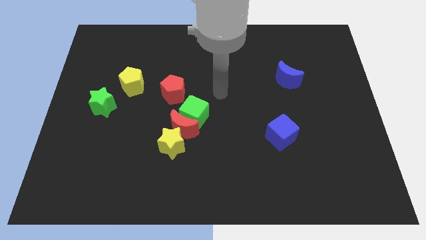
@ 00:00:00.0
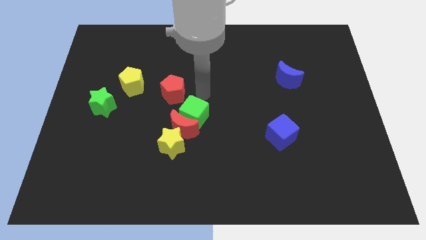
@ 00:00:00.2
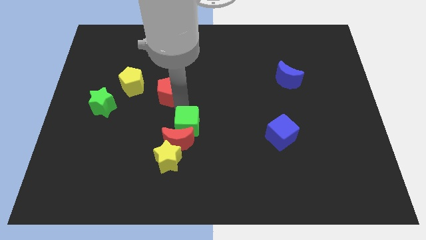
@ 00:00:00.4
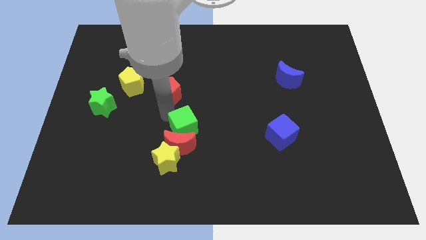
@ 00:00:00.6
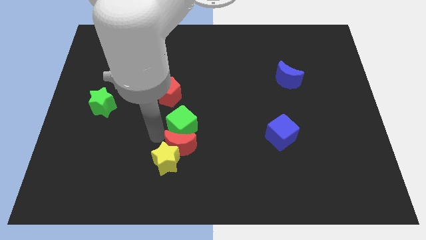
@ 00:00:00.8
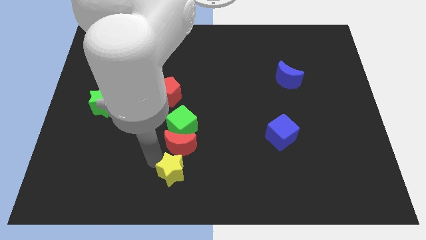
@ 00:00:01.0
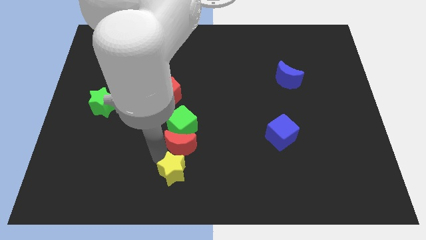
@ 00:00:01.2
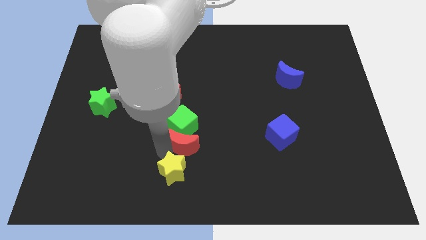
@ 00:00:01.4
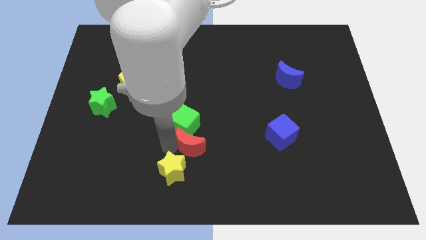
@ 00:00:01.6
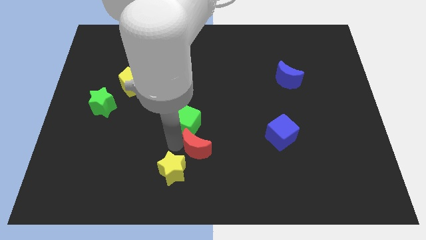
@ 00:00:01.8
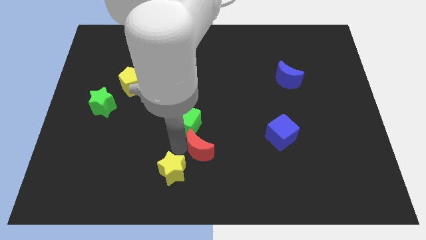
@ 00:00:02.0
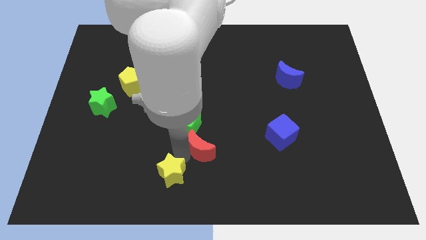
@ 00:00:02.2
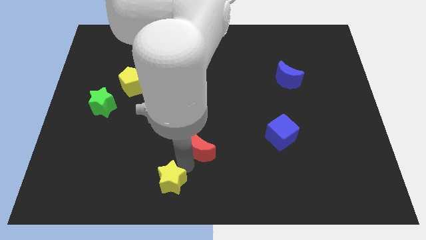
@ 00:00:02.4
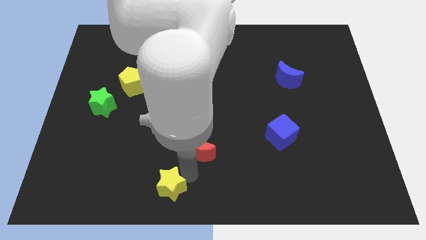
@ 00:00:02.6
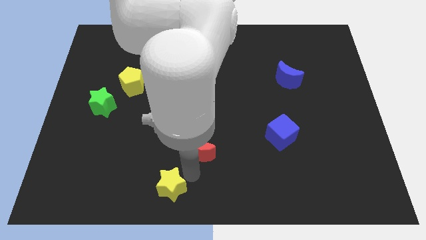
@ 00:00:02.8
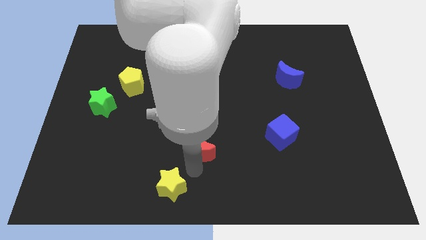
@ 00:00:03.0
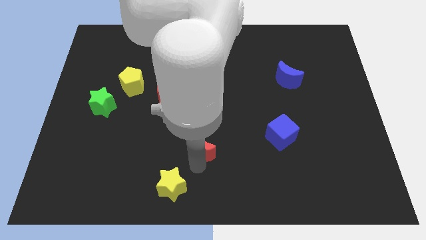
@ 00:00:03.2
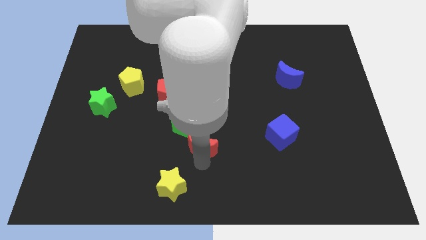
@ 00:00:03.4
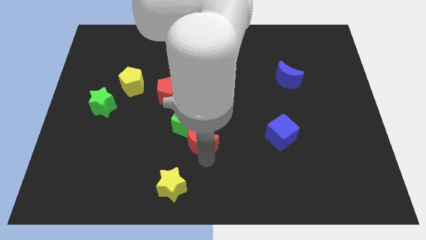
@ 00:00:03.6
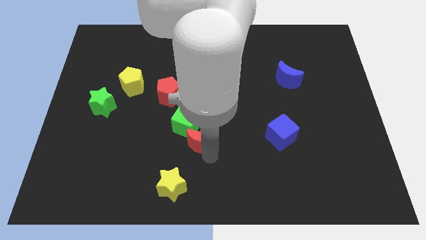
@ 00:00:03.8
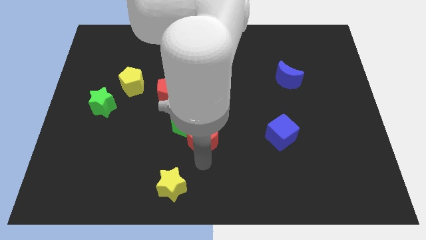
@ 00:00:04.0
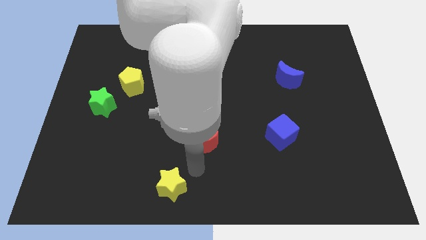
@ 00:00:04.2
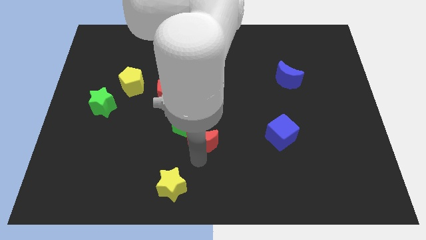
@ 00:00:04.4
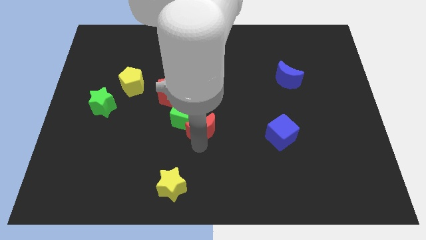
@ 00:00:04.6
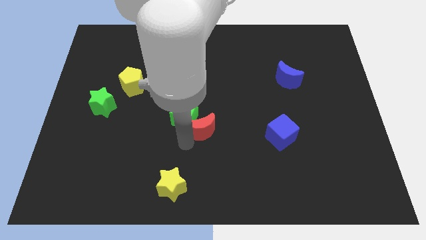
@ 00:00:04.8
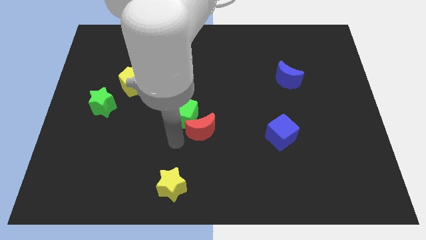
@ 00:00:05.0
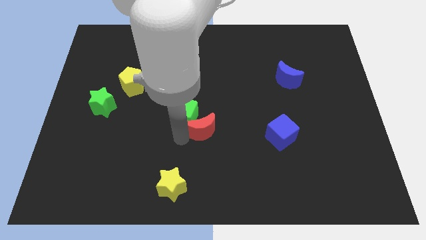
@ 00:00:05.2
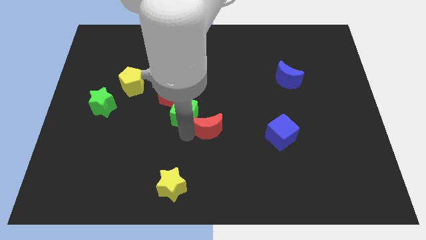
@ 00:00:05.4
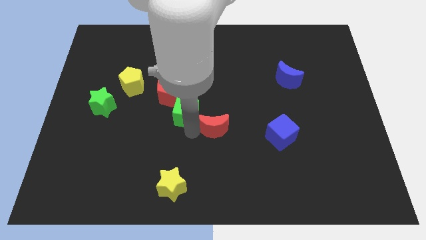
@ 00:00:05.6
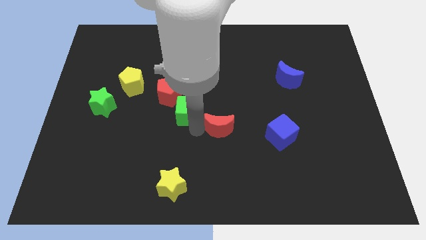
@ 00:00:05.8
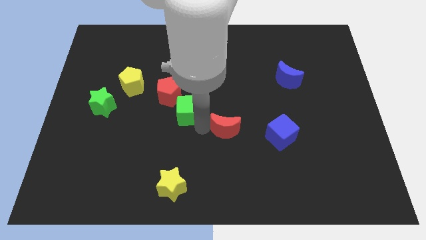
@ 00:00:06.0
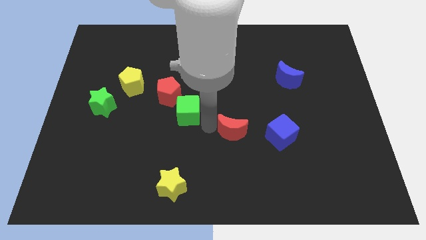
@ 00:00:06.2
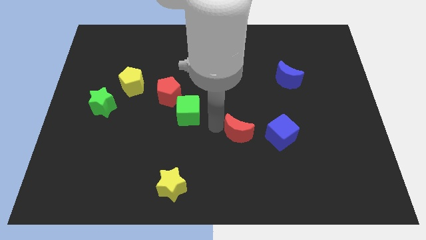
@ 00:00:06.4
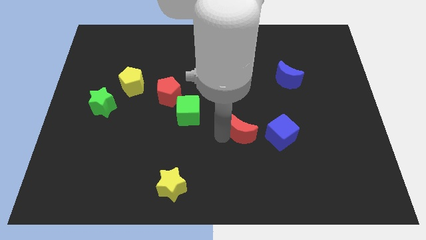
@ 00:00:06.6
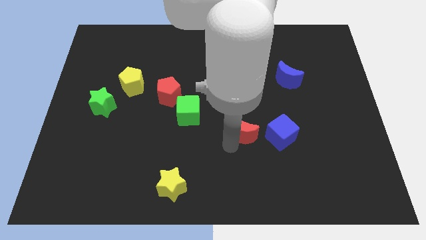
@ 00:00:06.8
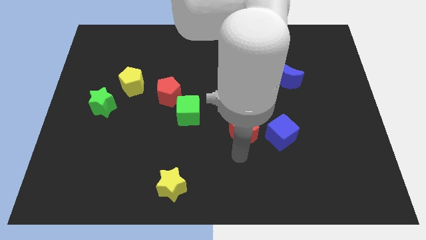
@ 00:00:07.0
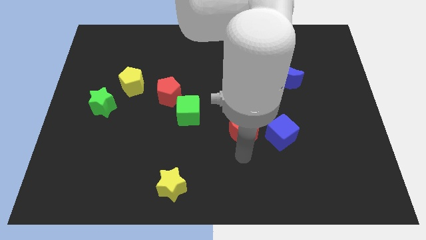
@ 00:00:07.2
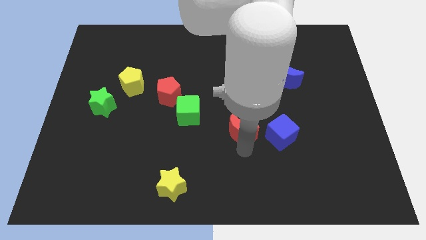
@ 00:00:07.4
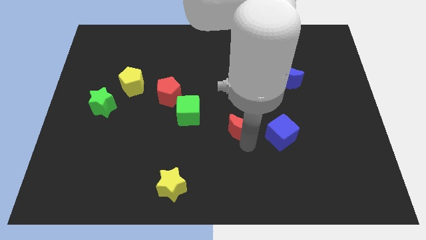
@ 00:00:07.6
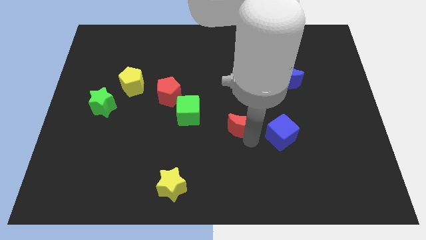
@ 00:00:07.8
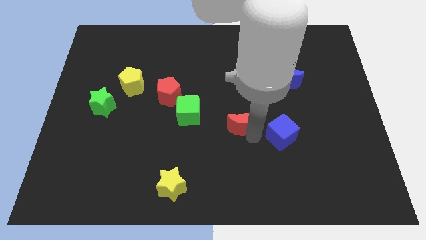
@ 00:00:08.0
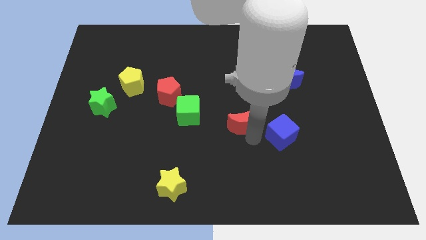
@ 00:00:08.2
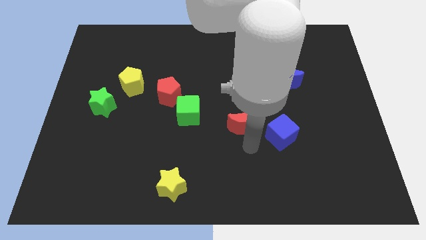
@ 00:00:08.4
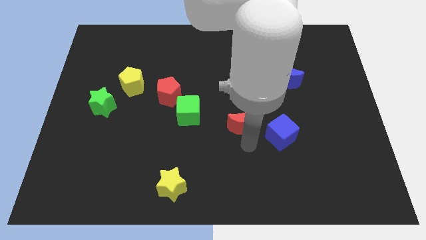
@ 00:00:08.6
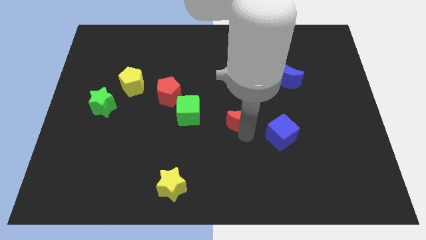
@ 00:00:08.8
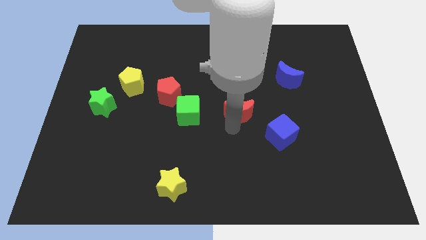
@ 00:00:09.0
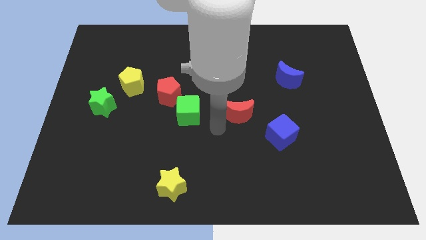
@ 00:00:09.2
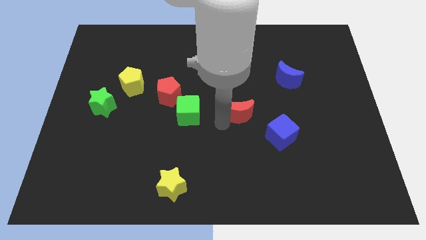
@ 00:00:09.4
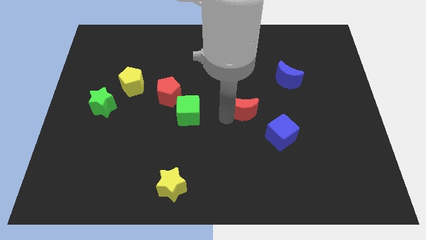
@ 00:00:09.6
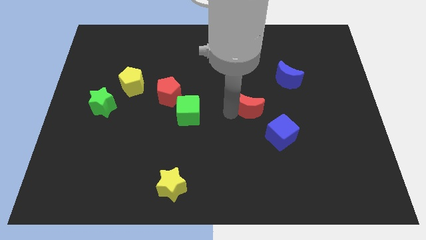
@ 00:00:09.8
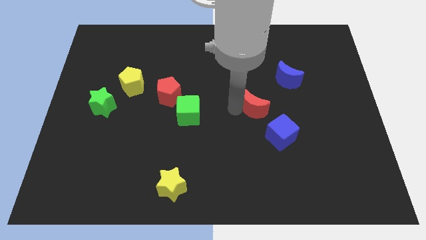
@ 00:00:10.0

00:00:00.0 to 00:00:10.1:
move the red moon to the bottom left side of the blue moon

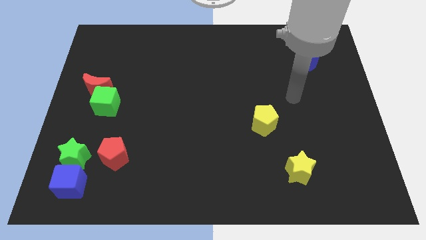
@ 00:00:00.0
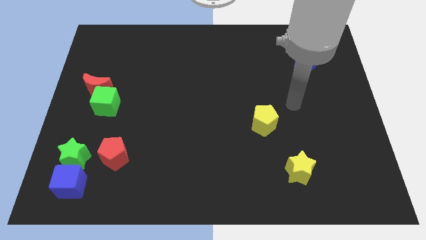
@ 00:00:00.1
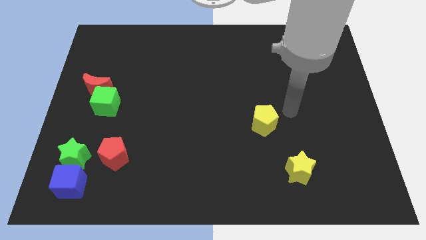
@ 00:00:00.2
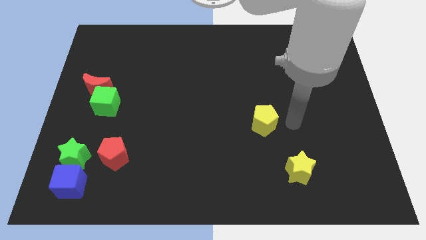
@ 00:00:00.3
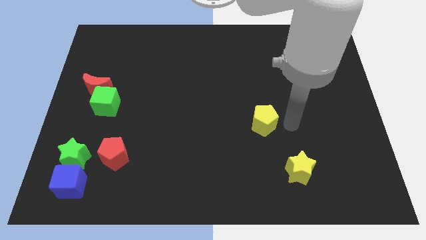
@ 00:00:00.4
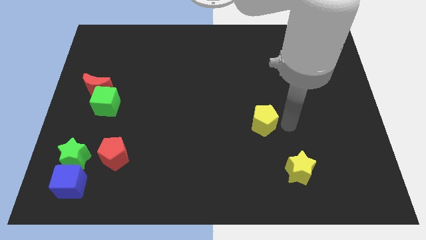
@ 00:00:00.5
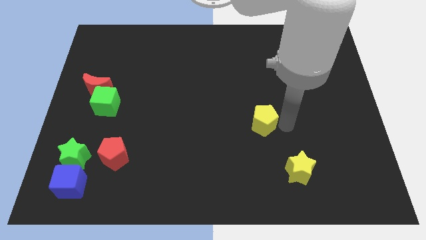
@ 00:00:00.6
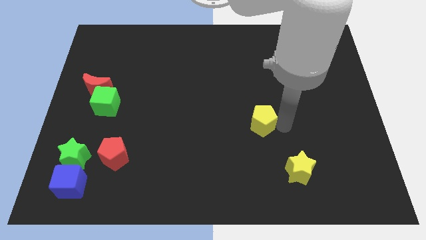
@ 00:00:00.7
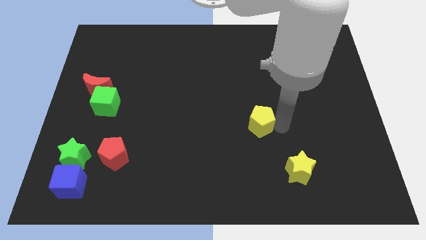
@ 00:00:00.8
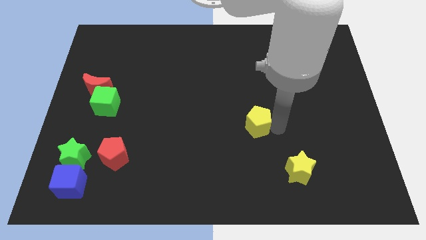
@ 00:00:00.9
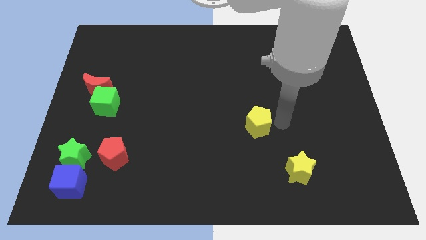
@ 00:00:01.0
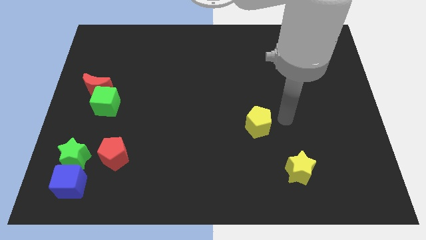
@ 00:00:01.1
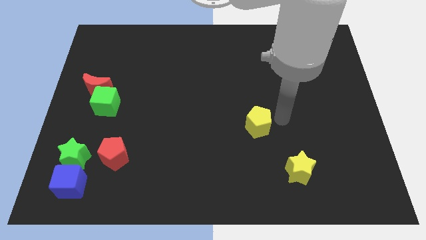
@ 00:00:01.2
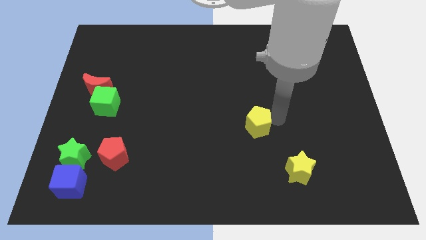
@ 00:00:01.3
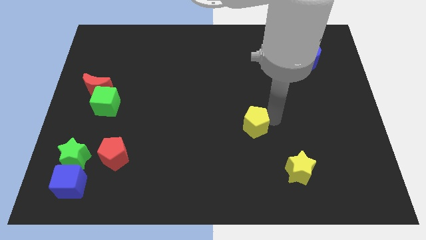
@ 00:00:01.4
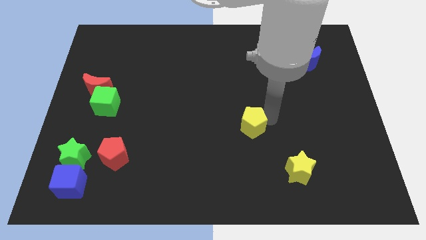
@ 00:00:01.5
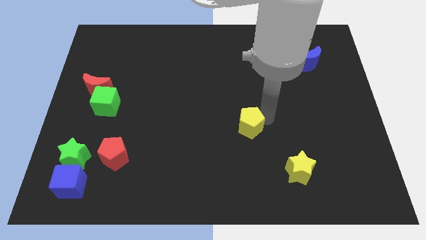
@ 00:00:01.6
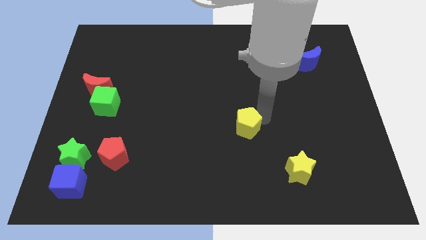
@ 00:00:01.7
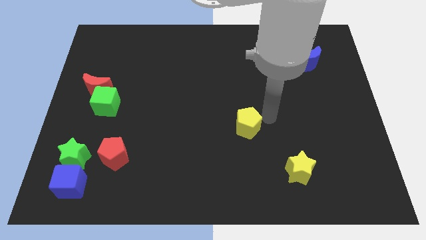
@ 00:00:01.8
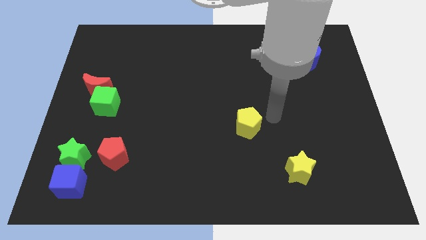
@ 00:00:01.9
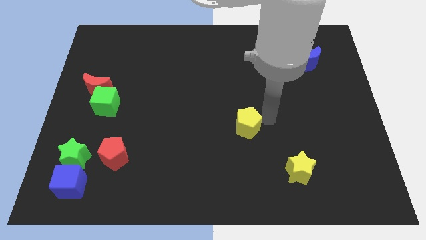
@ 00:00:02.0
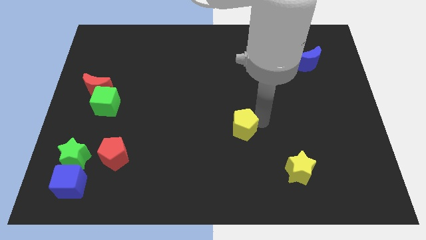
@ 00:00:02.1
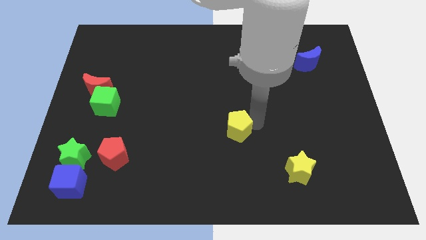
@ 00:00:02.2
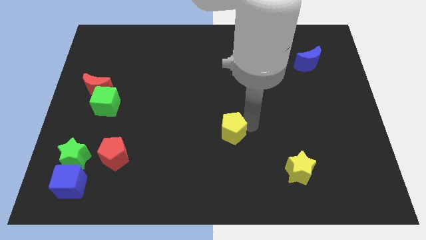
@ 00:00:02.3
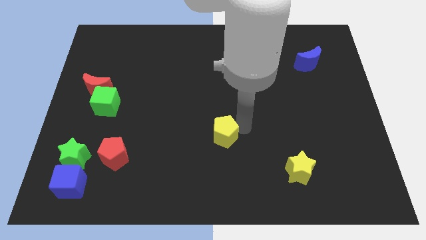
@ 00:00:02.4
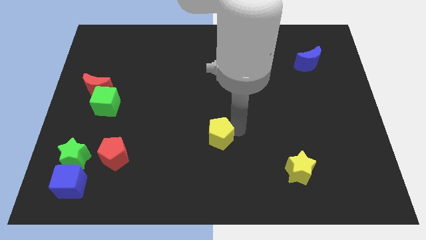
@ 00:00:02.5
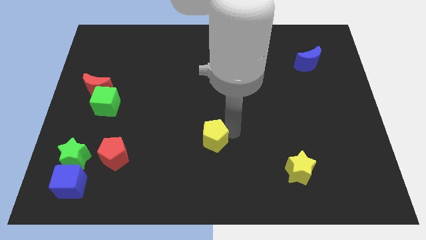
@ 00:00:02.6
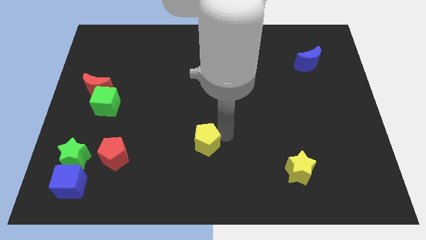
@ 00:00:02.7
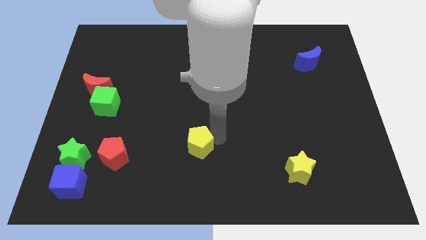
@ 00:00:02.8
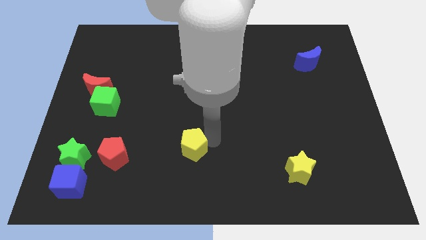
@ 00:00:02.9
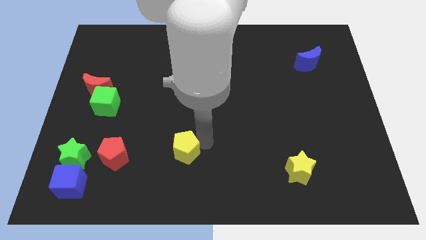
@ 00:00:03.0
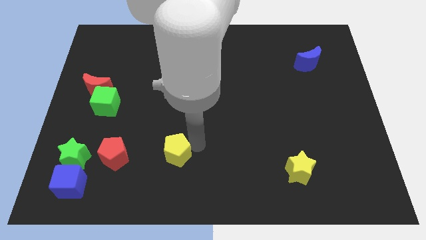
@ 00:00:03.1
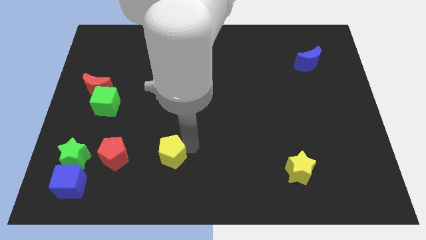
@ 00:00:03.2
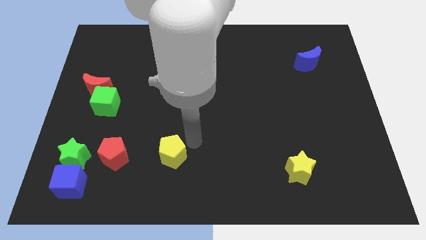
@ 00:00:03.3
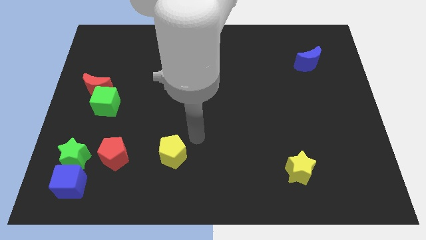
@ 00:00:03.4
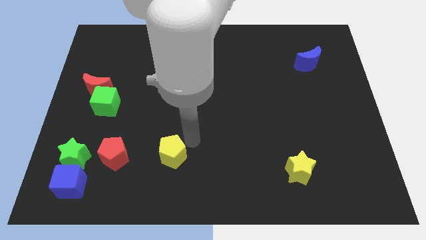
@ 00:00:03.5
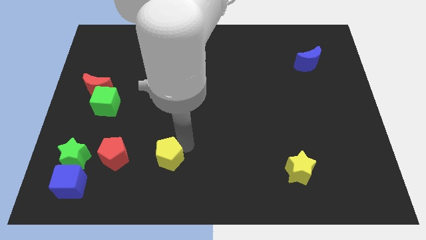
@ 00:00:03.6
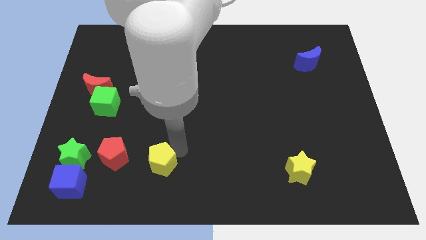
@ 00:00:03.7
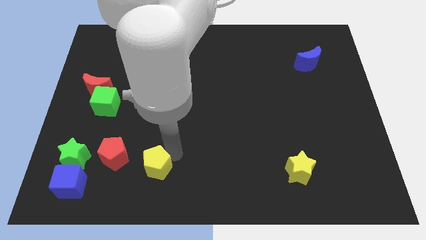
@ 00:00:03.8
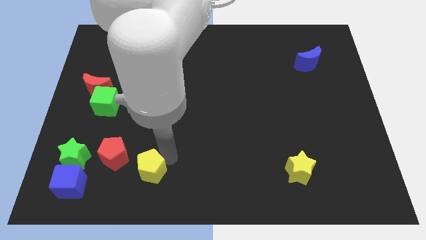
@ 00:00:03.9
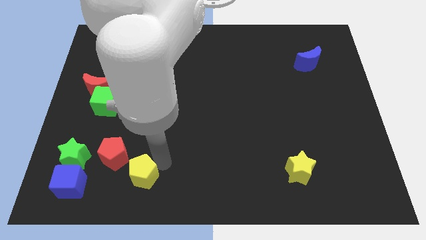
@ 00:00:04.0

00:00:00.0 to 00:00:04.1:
slide the yellow pentagon to the right side of the blue cube
